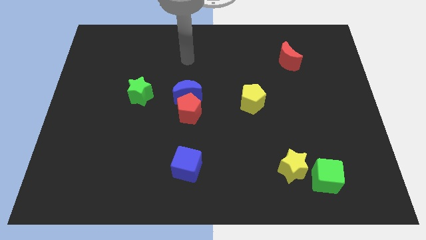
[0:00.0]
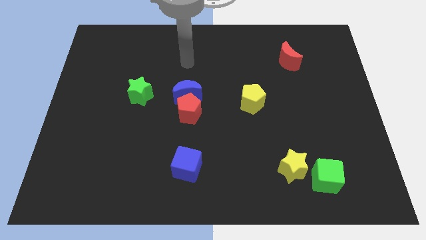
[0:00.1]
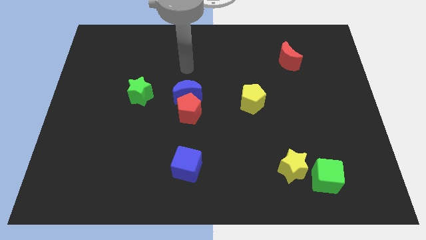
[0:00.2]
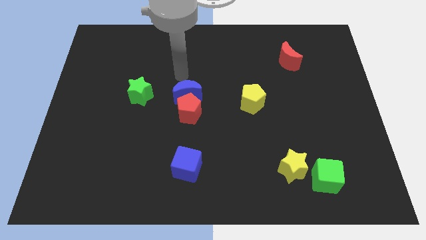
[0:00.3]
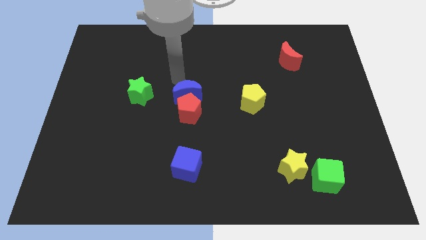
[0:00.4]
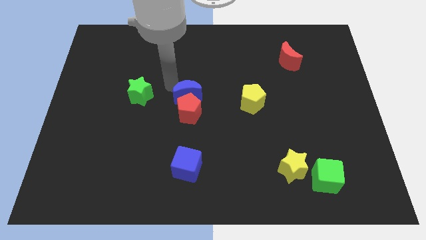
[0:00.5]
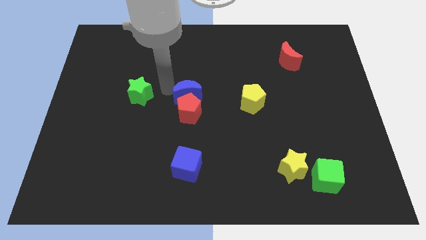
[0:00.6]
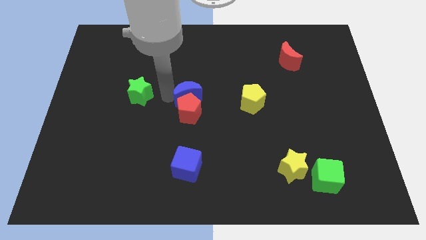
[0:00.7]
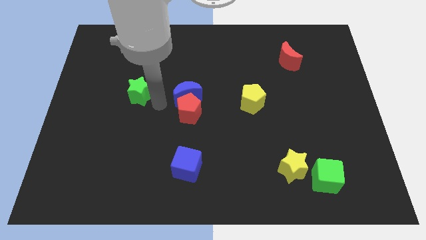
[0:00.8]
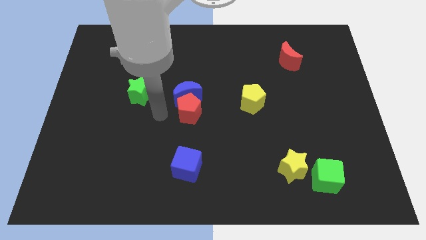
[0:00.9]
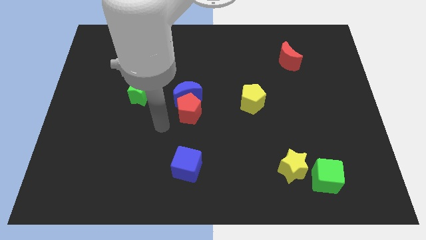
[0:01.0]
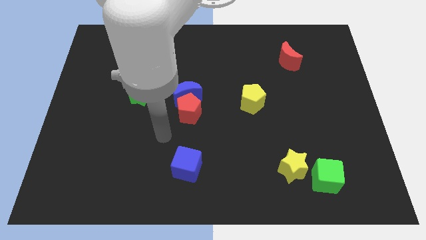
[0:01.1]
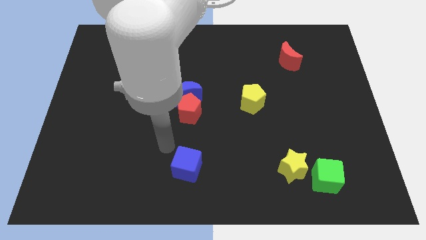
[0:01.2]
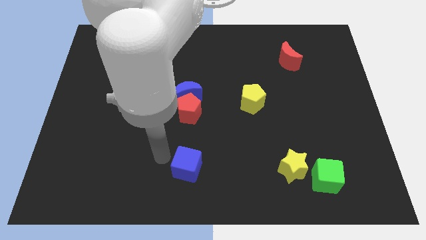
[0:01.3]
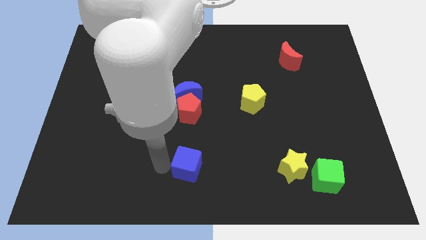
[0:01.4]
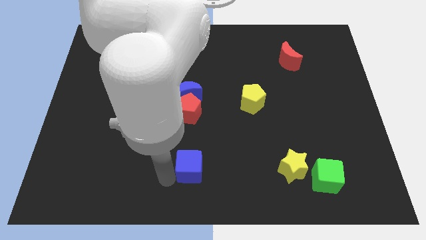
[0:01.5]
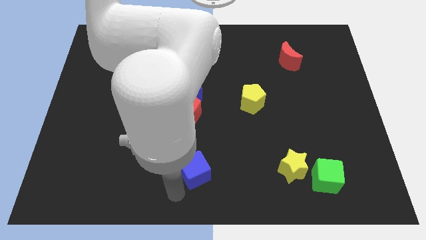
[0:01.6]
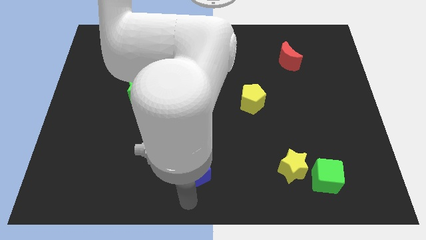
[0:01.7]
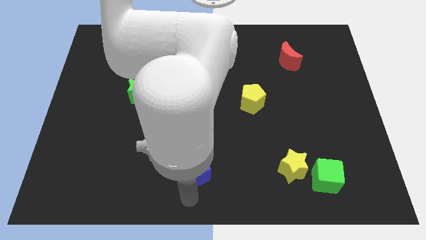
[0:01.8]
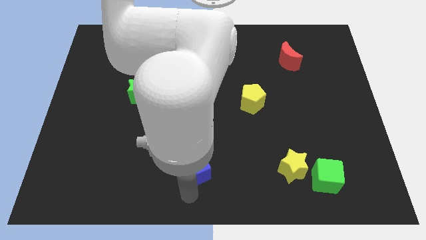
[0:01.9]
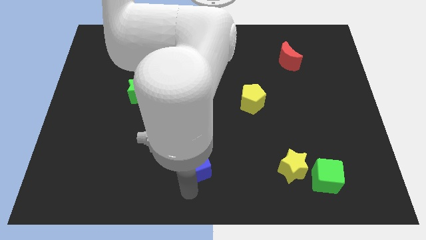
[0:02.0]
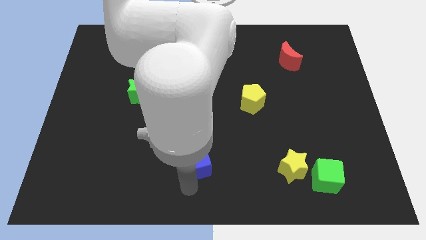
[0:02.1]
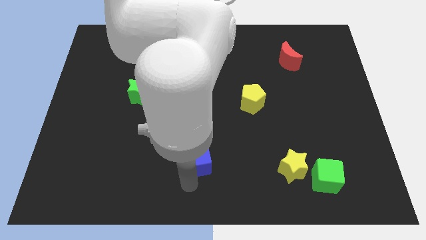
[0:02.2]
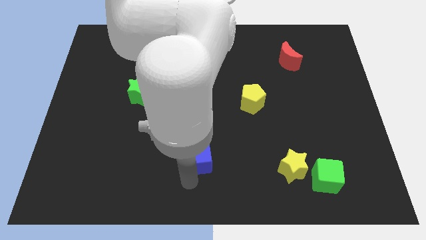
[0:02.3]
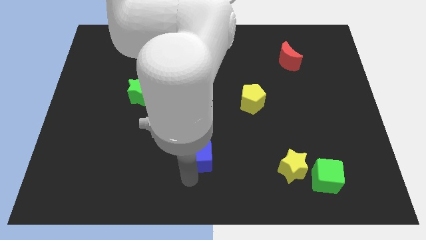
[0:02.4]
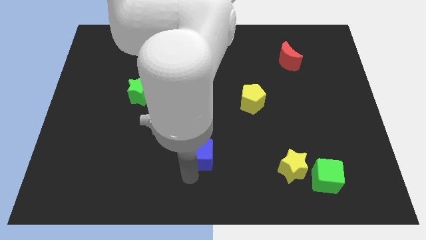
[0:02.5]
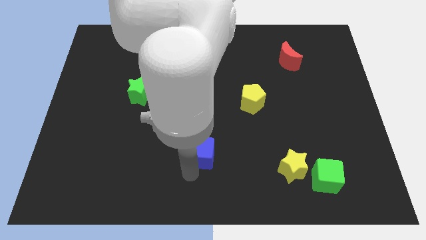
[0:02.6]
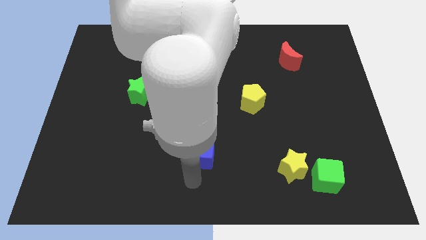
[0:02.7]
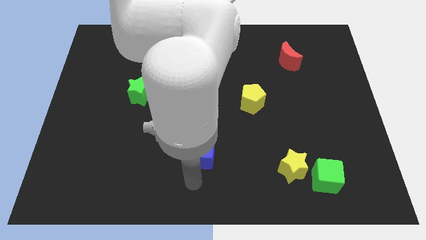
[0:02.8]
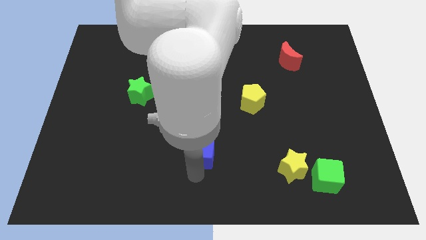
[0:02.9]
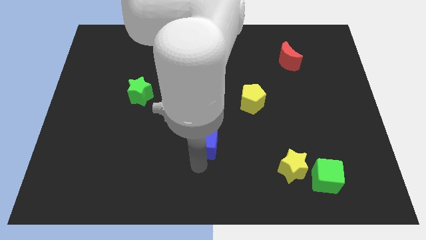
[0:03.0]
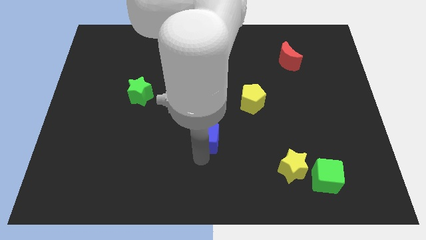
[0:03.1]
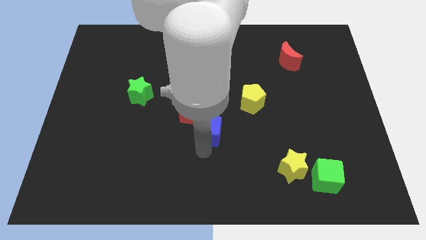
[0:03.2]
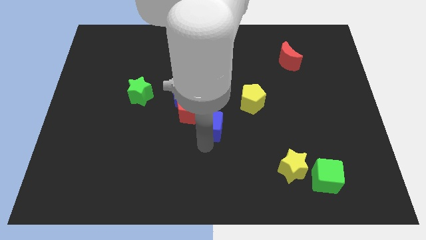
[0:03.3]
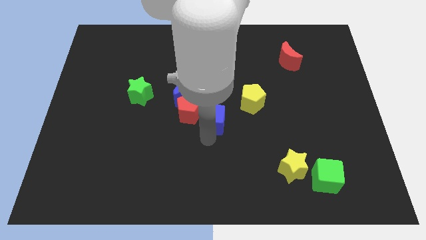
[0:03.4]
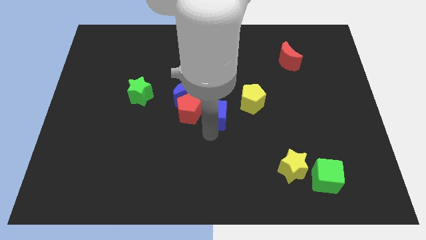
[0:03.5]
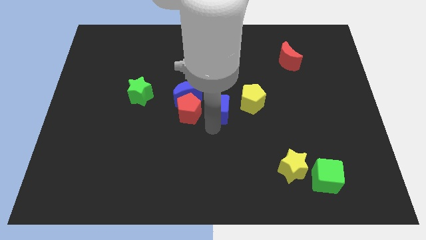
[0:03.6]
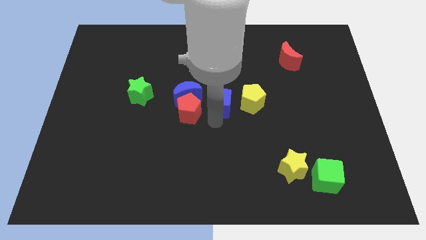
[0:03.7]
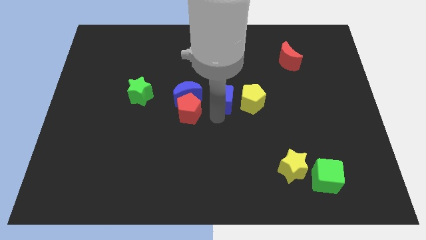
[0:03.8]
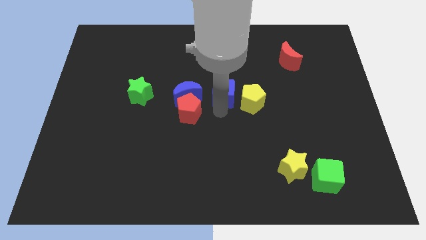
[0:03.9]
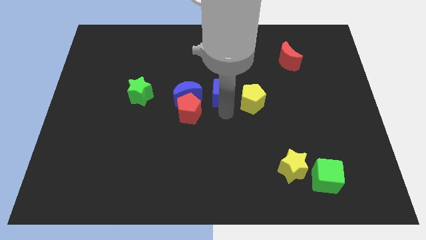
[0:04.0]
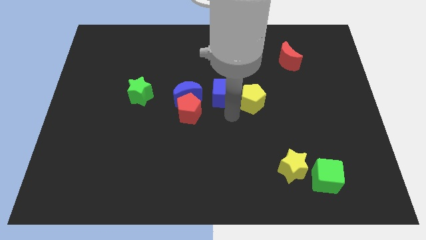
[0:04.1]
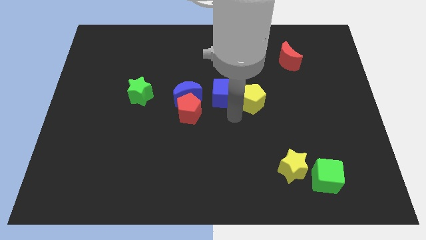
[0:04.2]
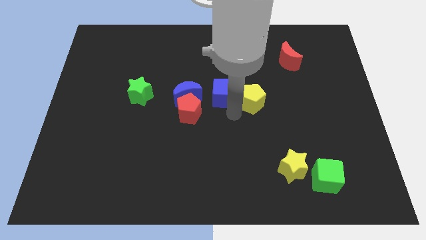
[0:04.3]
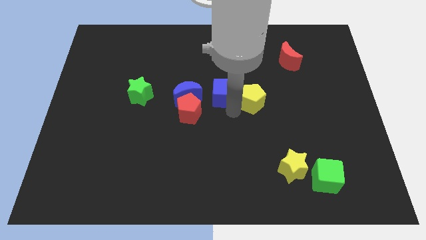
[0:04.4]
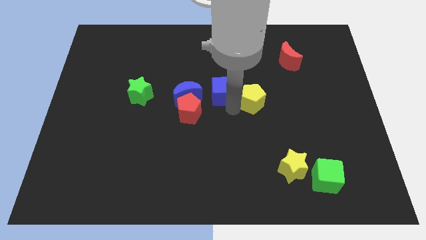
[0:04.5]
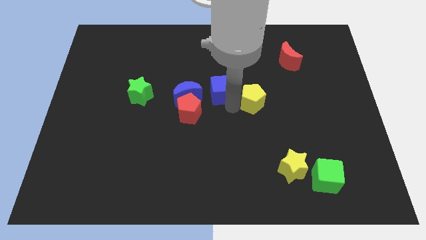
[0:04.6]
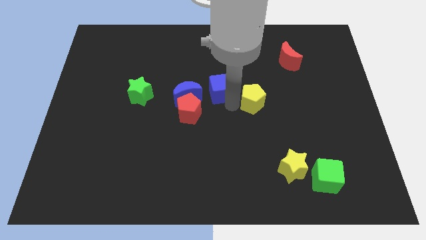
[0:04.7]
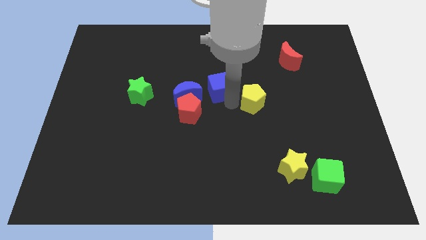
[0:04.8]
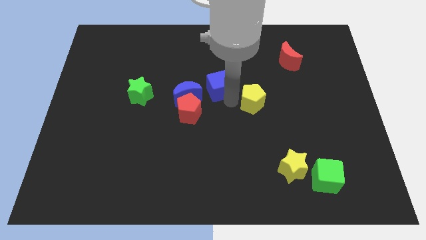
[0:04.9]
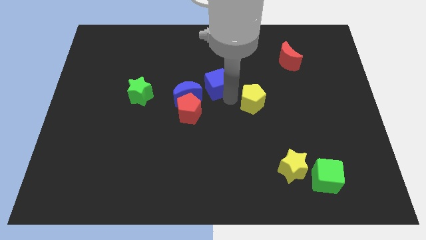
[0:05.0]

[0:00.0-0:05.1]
slide the blue cube upwards

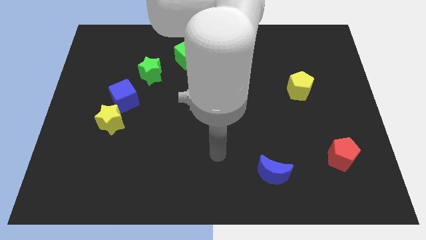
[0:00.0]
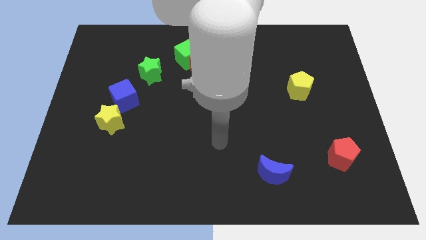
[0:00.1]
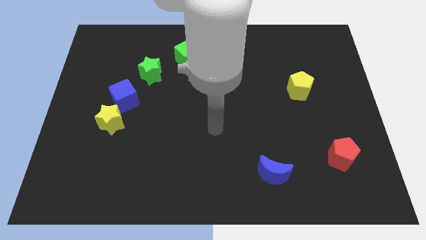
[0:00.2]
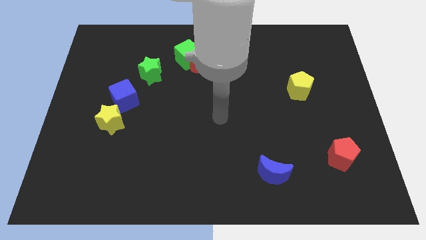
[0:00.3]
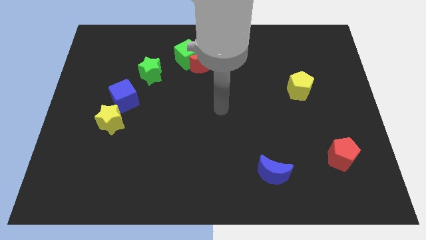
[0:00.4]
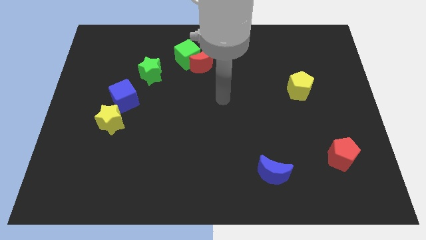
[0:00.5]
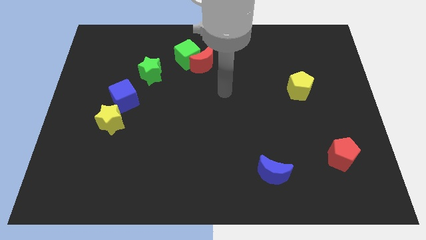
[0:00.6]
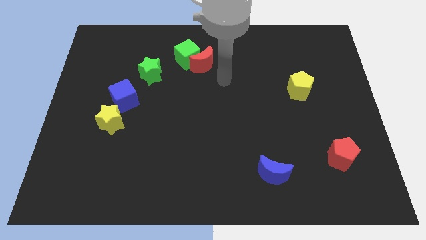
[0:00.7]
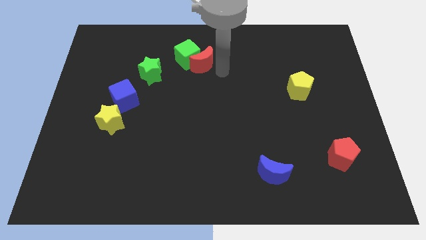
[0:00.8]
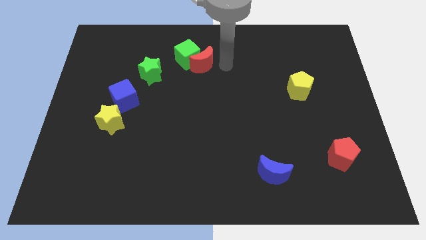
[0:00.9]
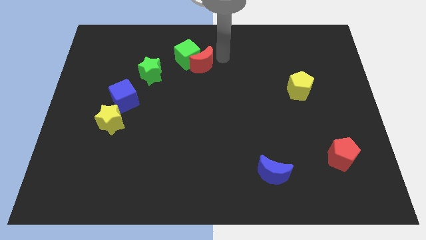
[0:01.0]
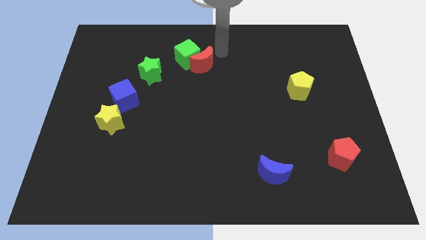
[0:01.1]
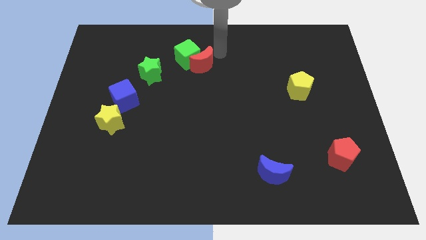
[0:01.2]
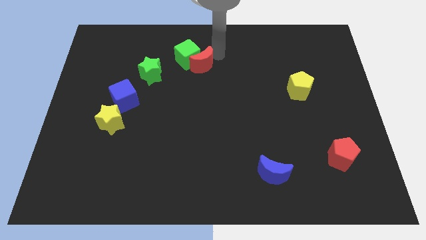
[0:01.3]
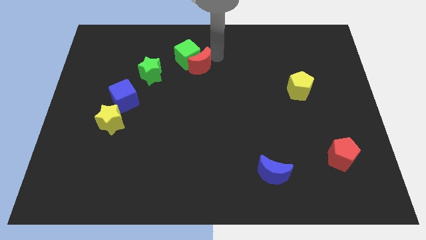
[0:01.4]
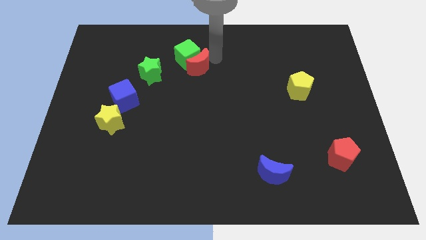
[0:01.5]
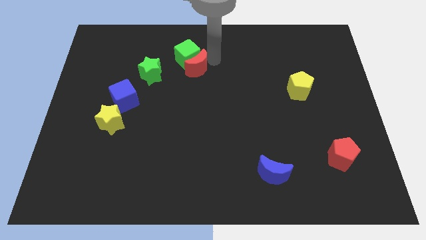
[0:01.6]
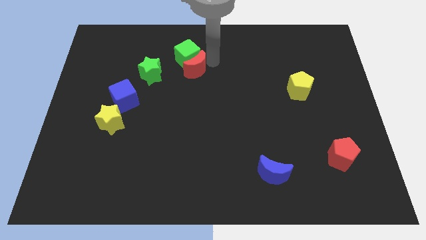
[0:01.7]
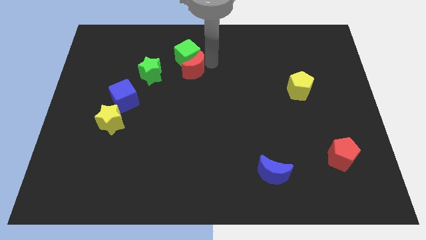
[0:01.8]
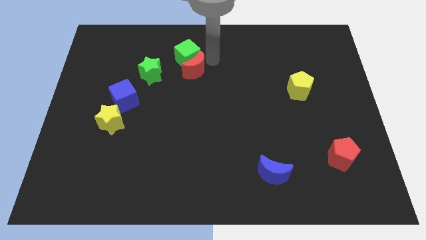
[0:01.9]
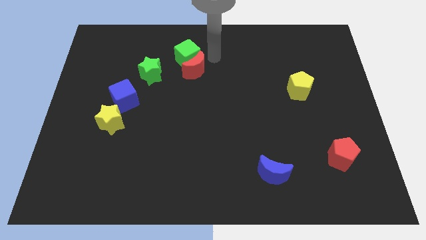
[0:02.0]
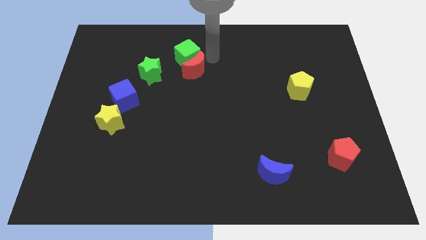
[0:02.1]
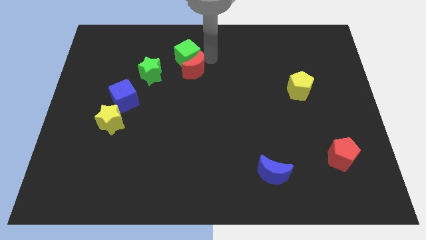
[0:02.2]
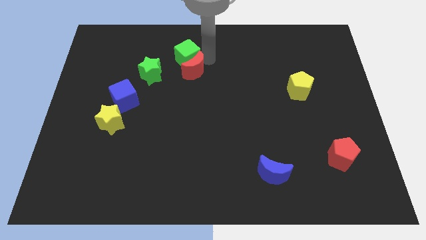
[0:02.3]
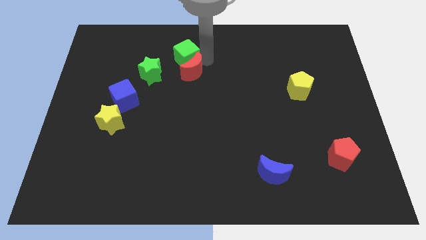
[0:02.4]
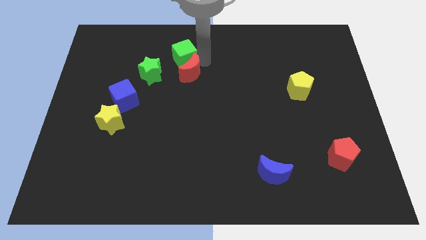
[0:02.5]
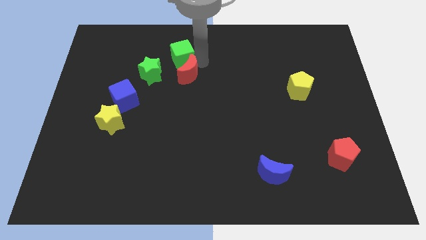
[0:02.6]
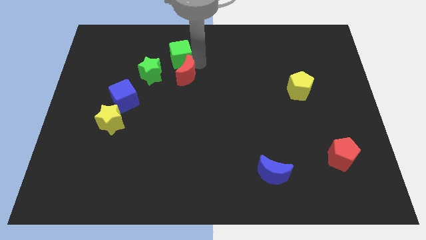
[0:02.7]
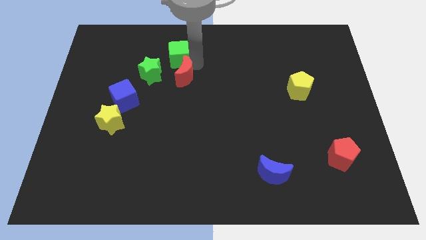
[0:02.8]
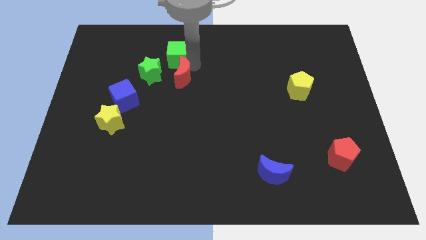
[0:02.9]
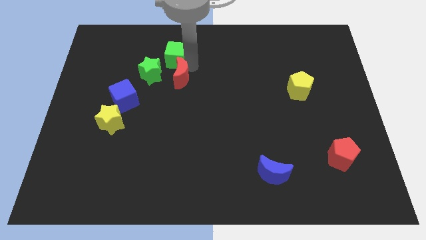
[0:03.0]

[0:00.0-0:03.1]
move the red moon somewhat down and then to the left
